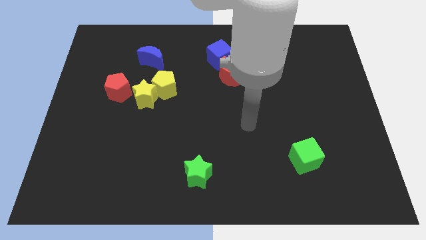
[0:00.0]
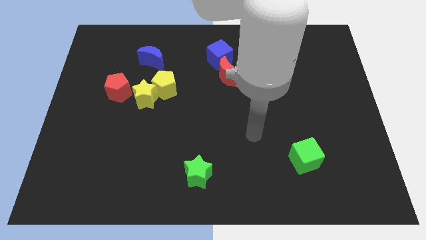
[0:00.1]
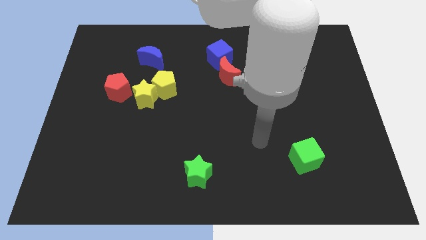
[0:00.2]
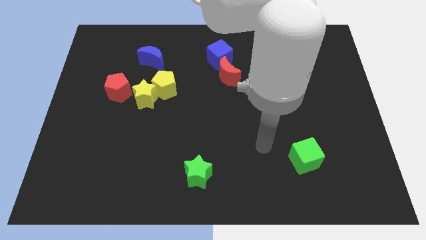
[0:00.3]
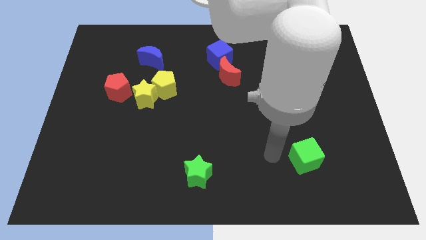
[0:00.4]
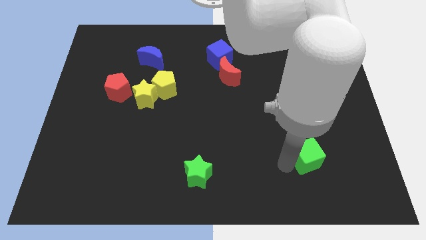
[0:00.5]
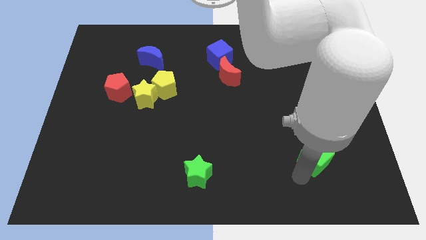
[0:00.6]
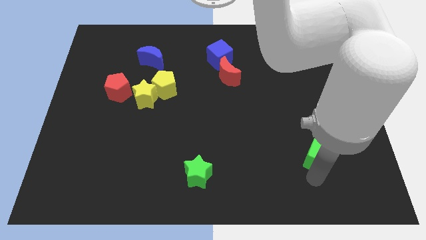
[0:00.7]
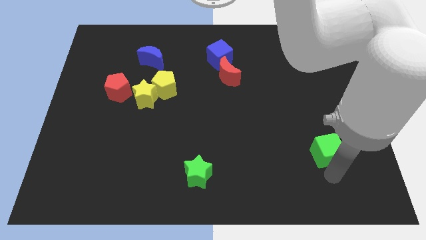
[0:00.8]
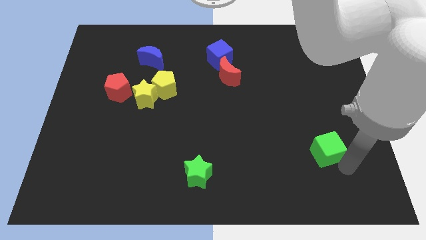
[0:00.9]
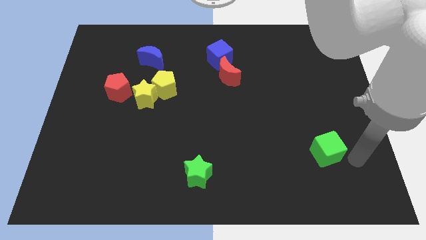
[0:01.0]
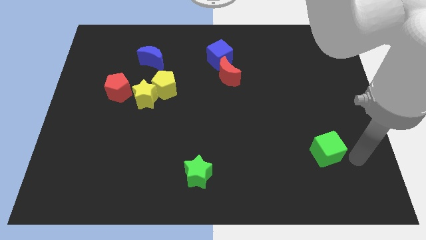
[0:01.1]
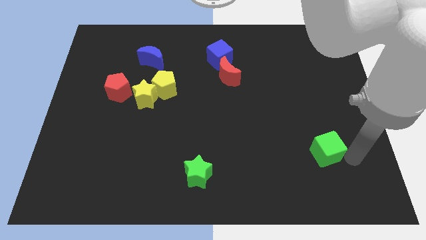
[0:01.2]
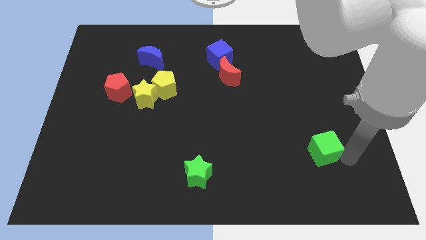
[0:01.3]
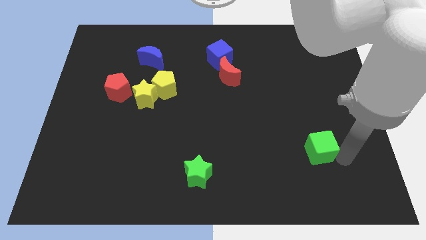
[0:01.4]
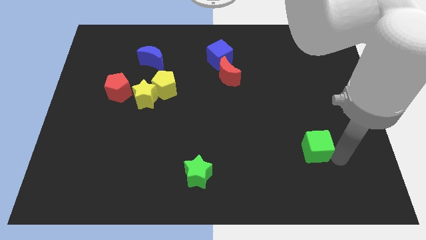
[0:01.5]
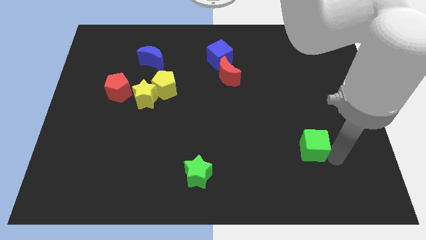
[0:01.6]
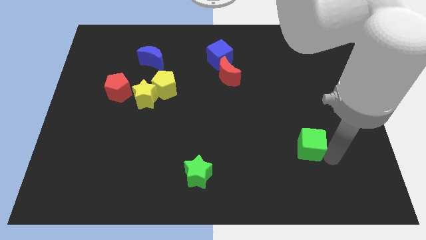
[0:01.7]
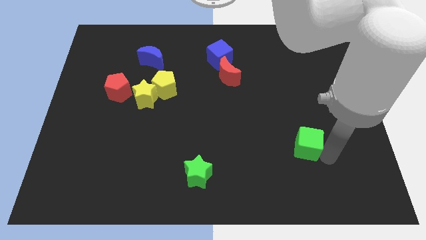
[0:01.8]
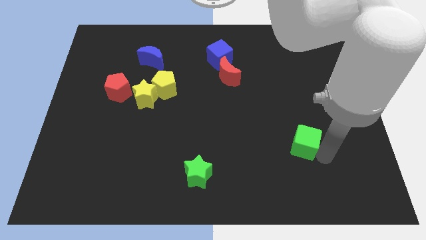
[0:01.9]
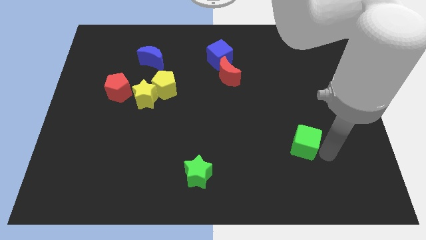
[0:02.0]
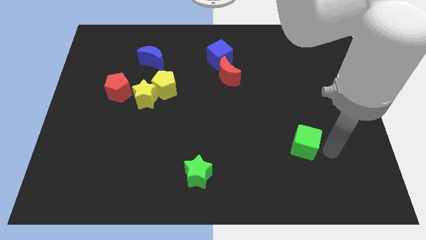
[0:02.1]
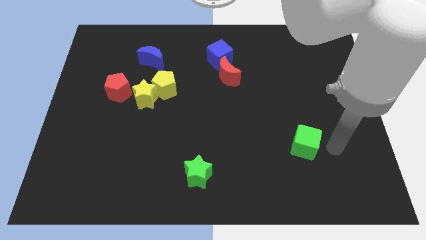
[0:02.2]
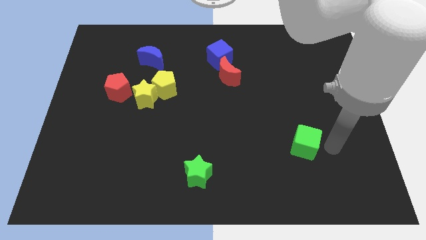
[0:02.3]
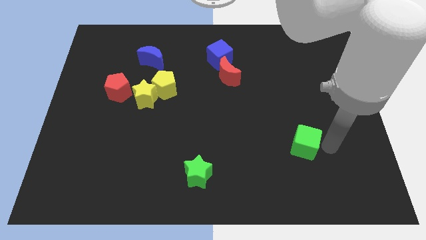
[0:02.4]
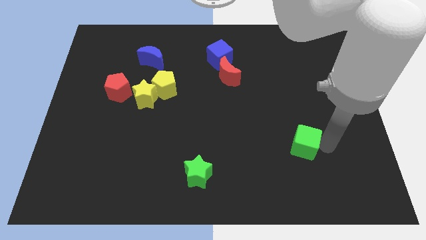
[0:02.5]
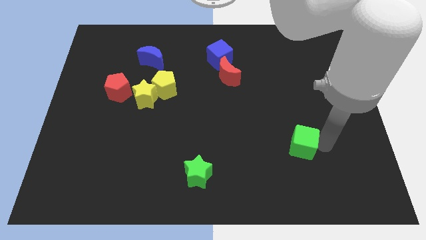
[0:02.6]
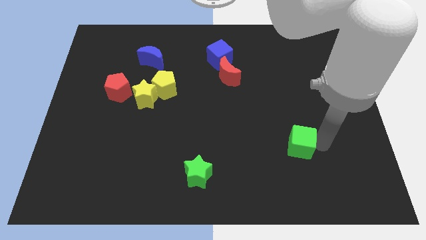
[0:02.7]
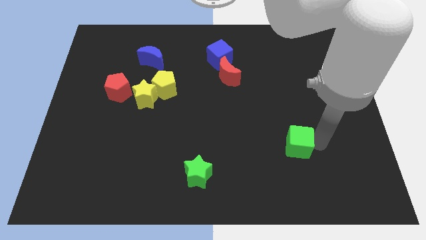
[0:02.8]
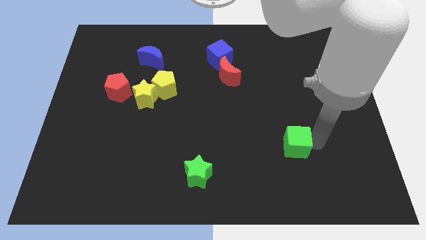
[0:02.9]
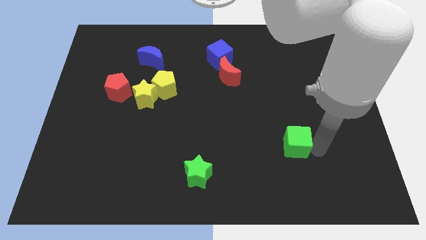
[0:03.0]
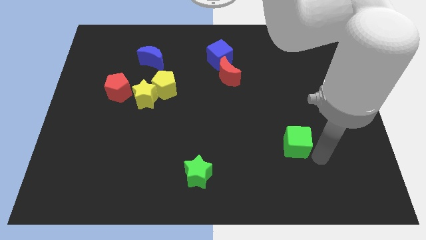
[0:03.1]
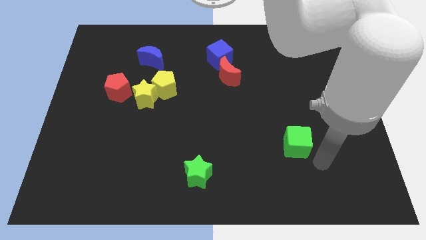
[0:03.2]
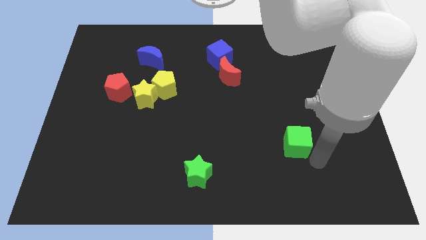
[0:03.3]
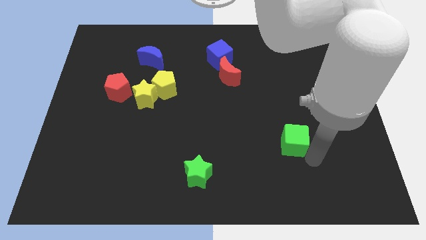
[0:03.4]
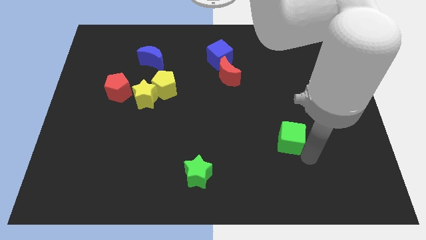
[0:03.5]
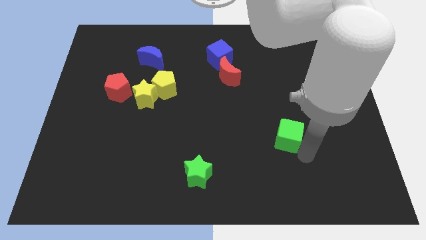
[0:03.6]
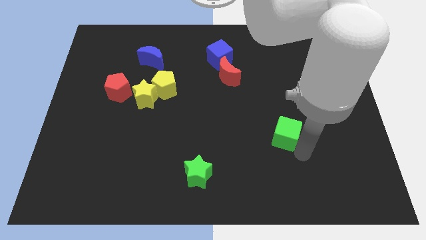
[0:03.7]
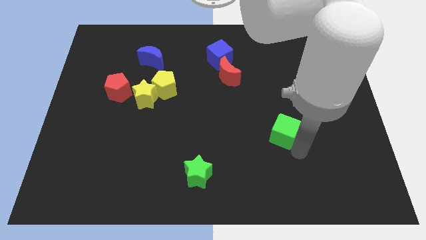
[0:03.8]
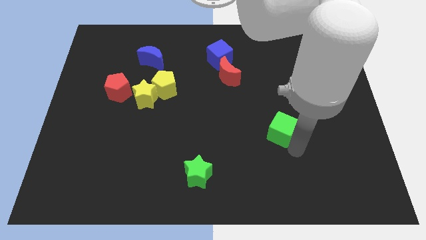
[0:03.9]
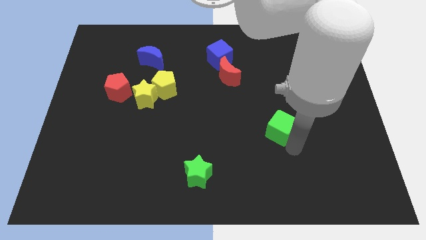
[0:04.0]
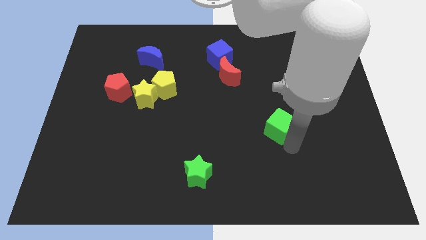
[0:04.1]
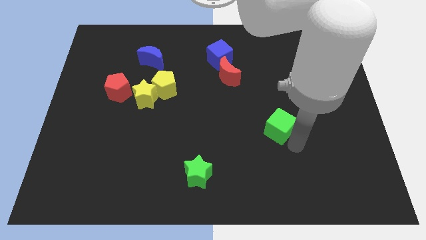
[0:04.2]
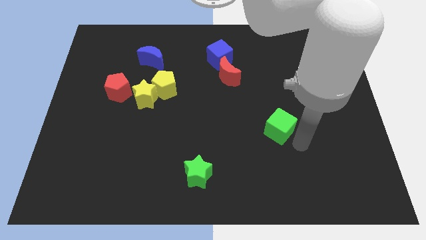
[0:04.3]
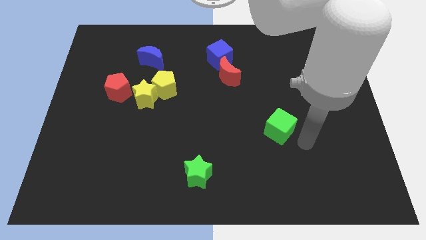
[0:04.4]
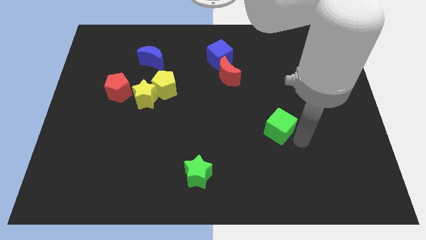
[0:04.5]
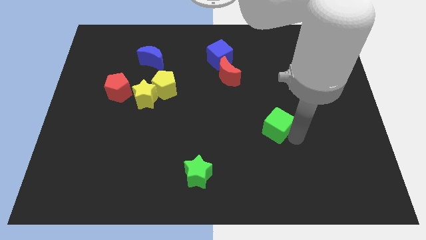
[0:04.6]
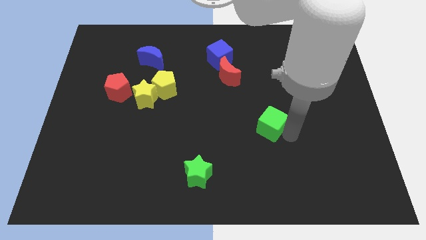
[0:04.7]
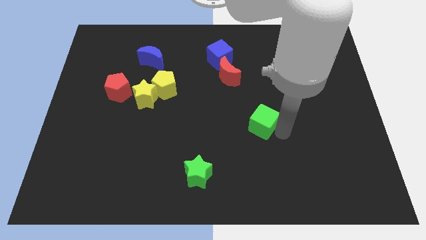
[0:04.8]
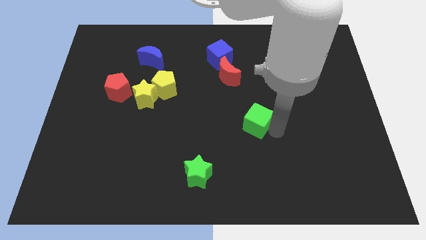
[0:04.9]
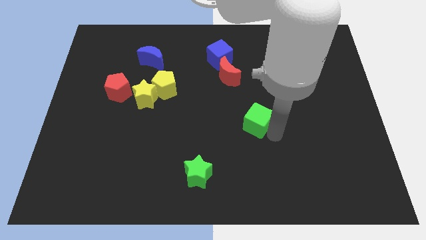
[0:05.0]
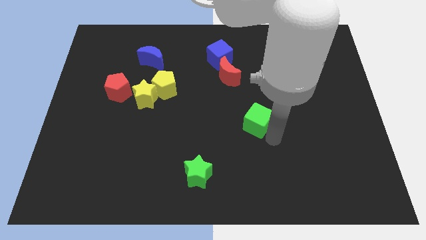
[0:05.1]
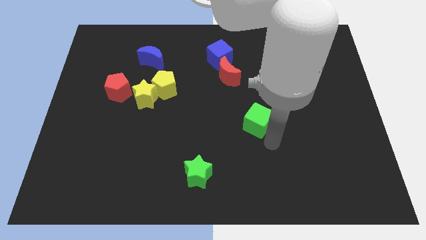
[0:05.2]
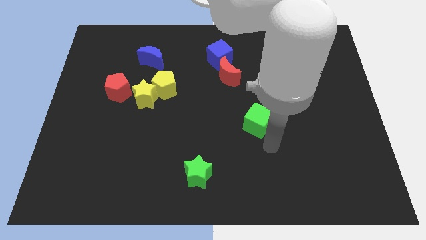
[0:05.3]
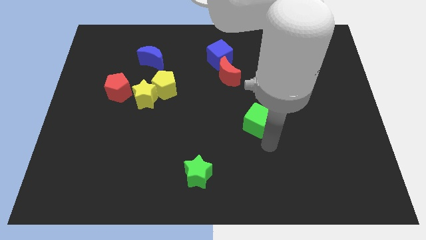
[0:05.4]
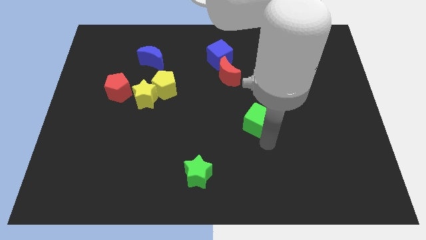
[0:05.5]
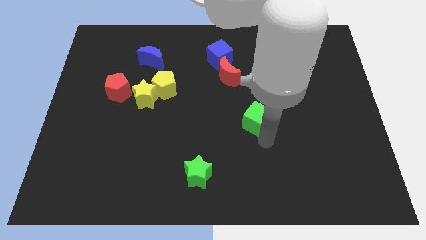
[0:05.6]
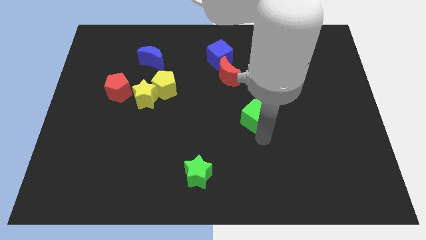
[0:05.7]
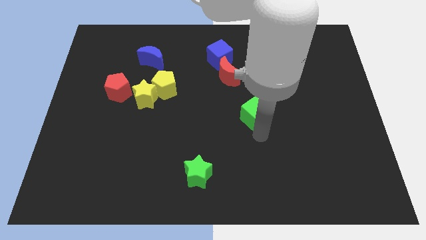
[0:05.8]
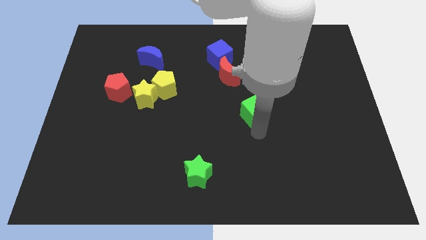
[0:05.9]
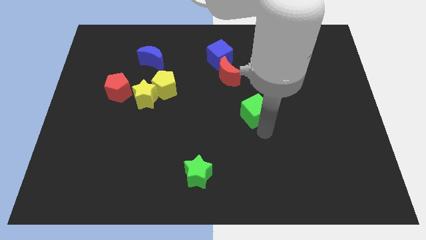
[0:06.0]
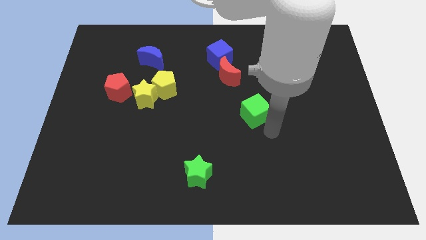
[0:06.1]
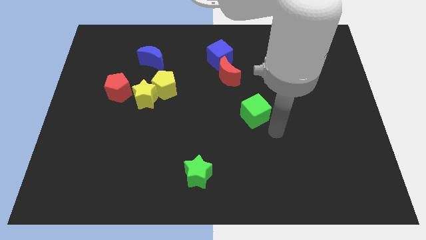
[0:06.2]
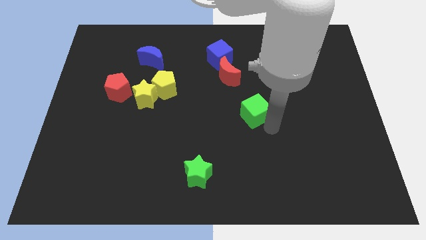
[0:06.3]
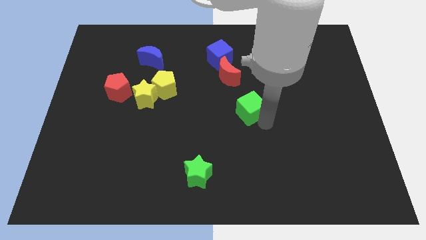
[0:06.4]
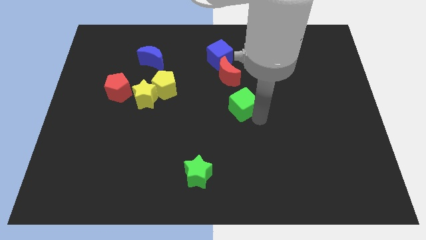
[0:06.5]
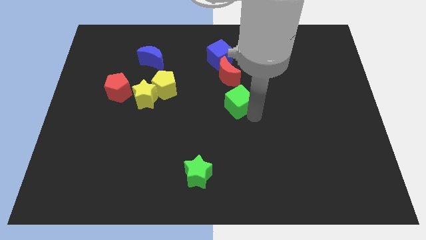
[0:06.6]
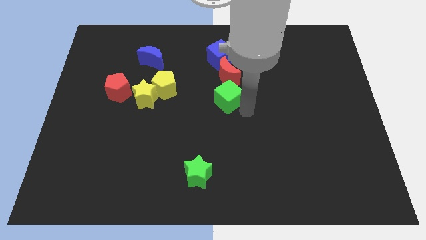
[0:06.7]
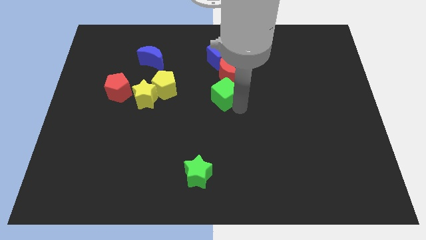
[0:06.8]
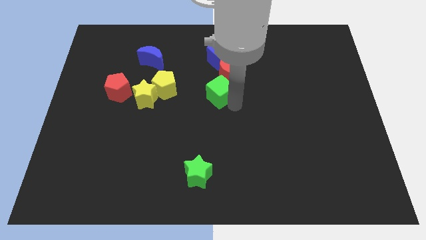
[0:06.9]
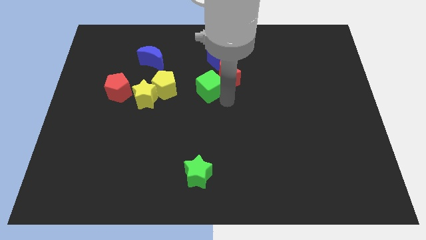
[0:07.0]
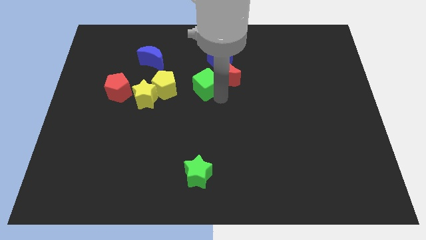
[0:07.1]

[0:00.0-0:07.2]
push the green cube to the bottom left of the blue cube
